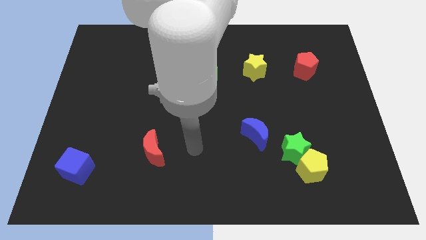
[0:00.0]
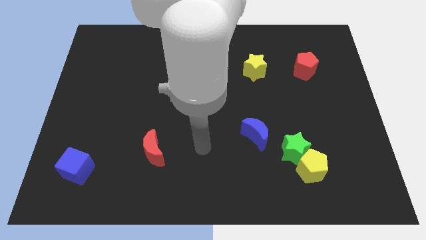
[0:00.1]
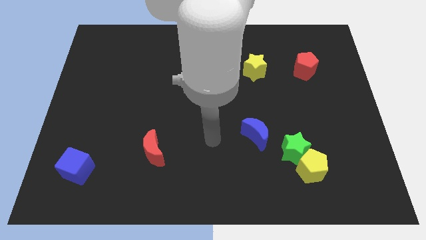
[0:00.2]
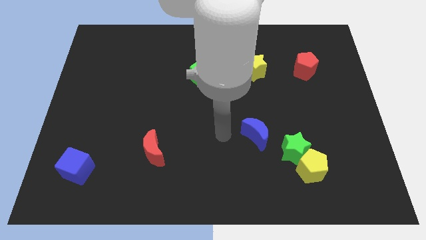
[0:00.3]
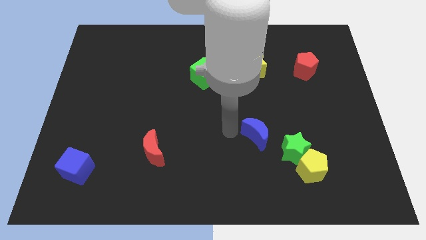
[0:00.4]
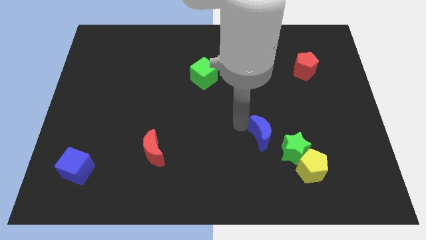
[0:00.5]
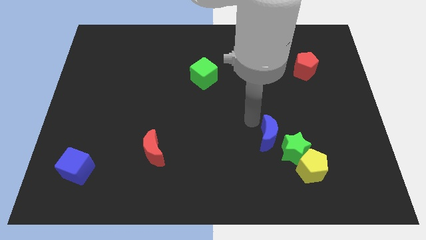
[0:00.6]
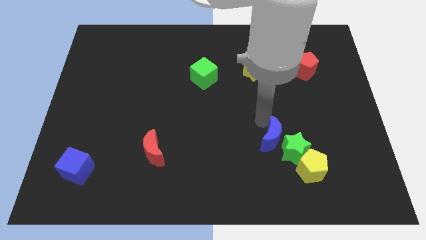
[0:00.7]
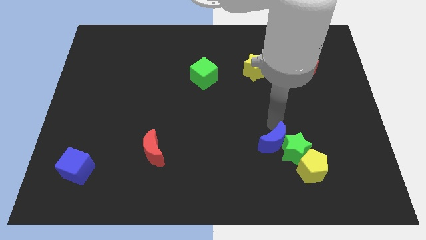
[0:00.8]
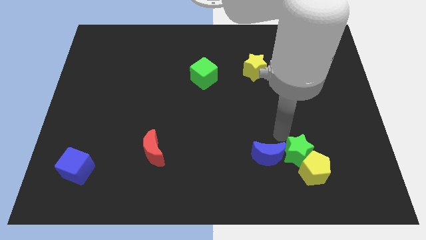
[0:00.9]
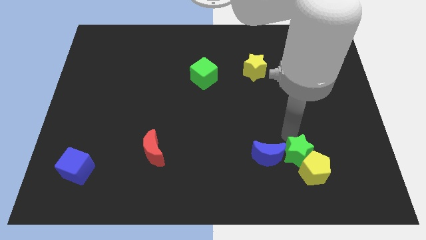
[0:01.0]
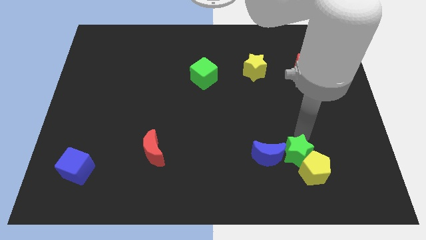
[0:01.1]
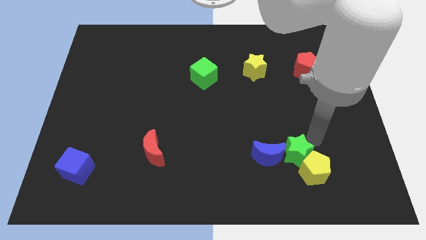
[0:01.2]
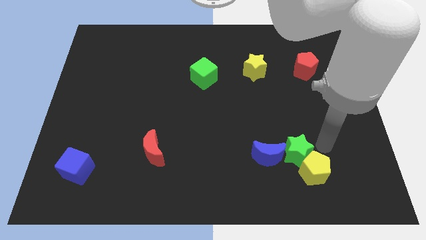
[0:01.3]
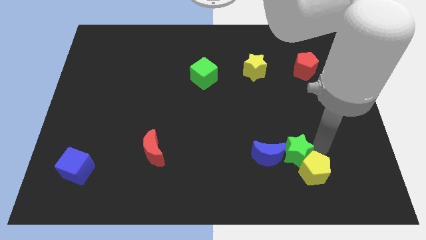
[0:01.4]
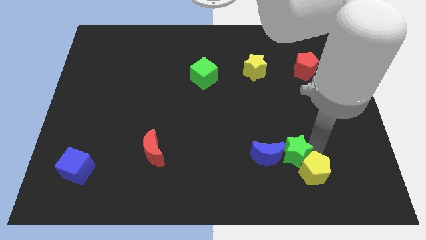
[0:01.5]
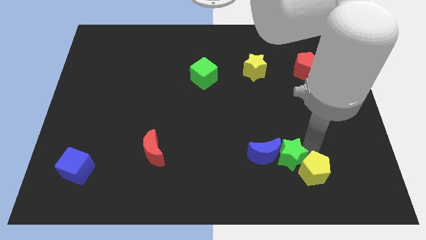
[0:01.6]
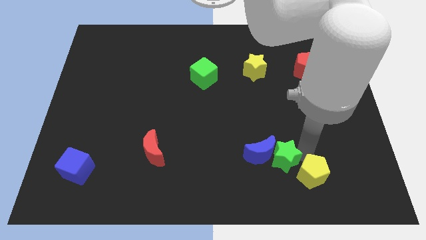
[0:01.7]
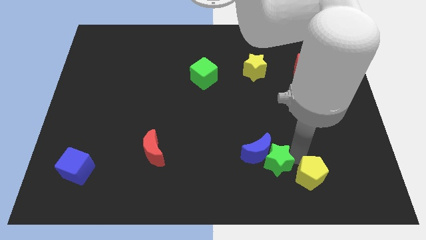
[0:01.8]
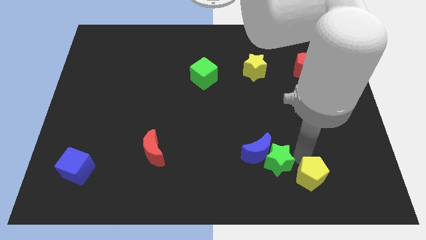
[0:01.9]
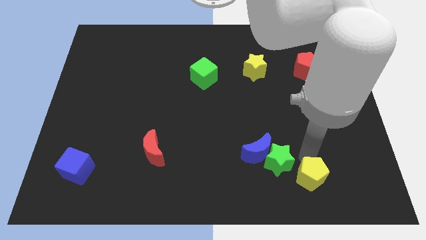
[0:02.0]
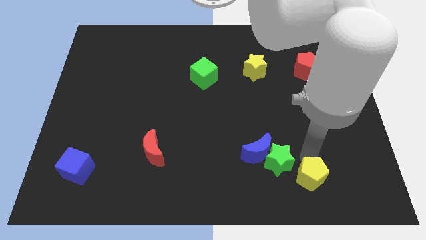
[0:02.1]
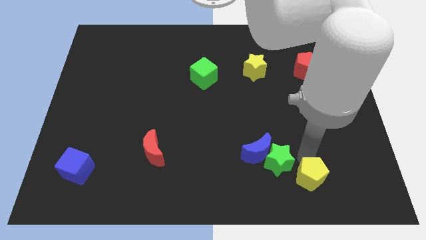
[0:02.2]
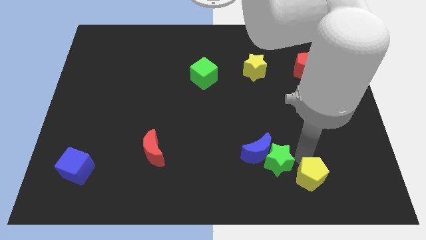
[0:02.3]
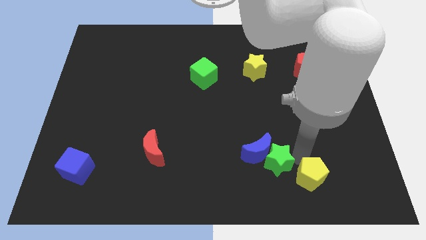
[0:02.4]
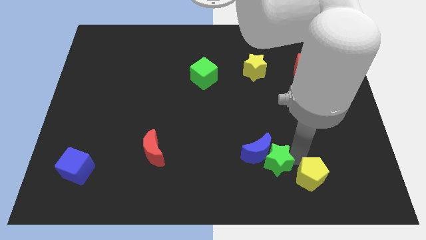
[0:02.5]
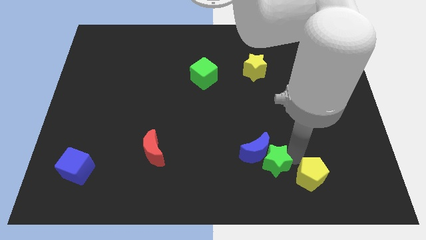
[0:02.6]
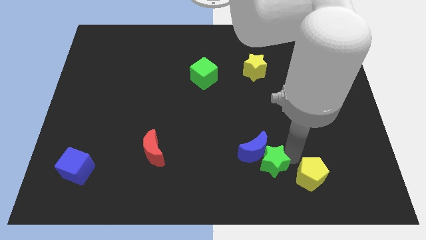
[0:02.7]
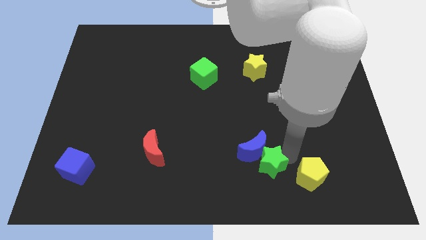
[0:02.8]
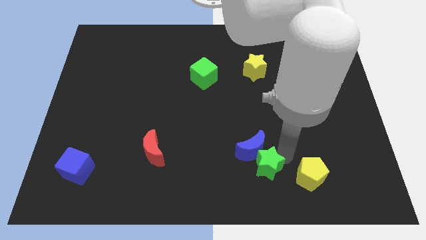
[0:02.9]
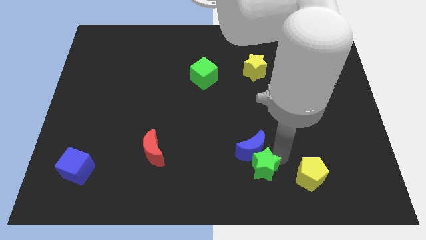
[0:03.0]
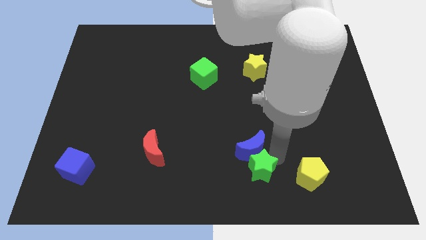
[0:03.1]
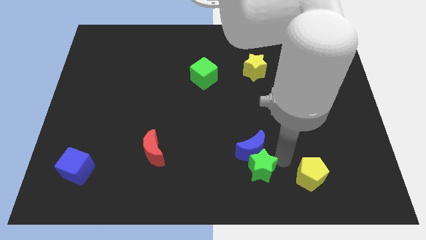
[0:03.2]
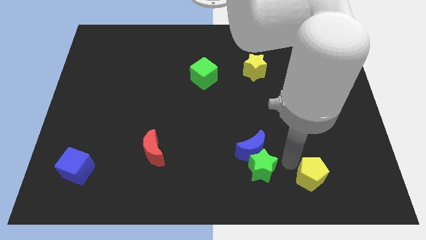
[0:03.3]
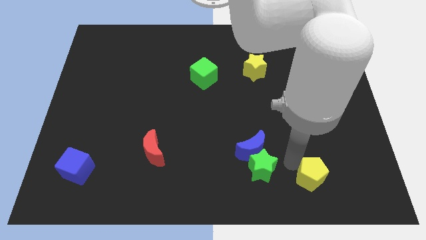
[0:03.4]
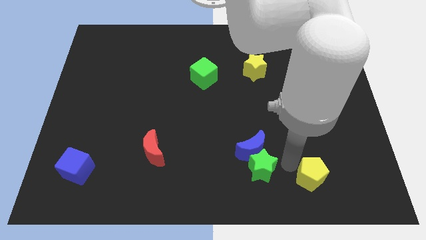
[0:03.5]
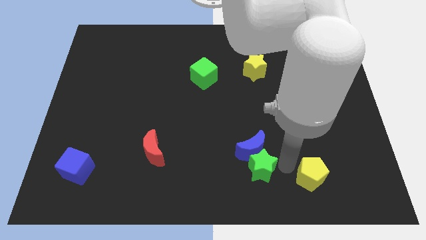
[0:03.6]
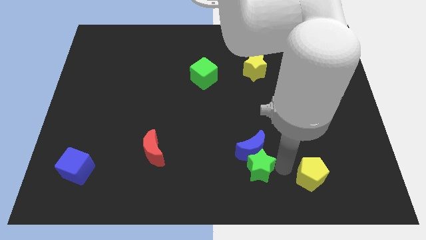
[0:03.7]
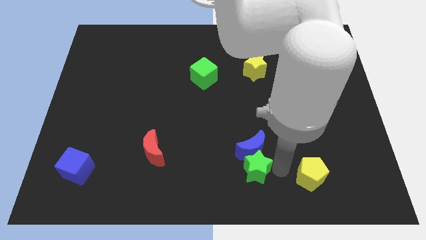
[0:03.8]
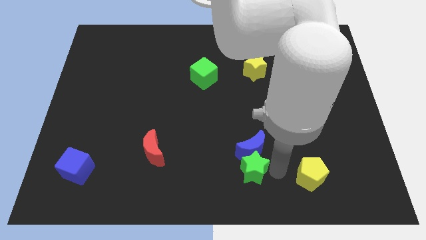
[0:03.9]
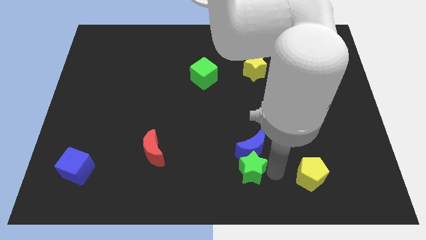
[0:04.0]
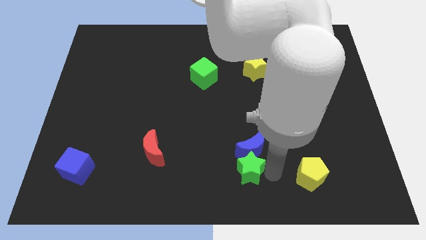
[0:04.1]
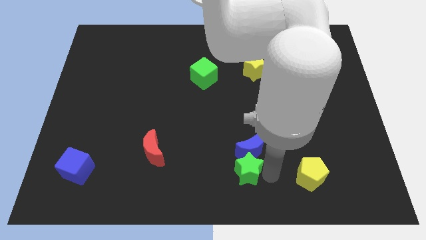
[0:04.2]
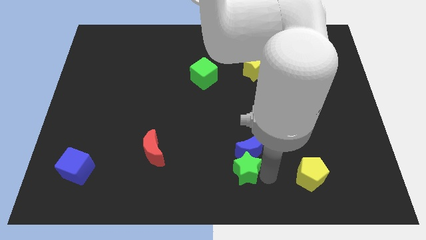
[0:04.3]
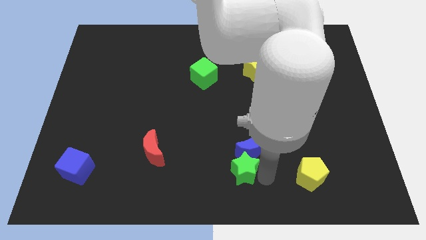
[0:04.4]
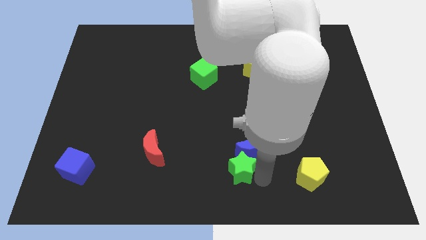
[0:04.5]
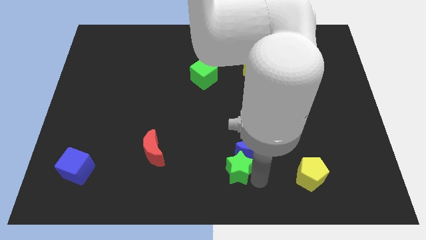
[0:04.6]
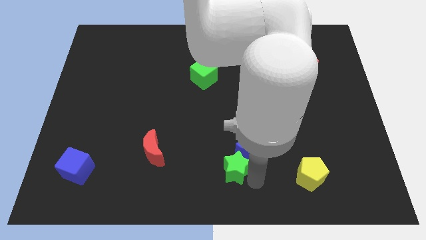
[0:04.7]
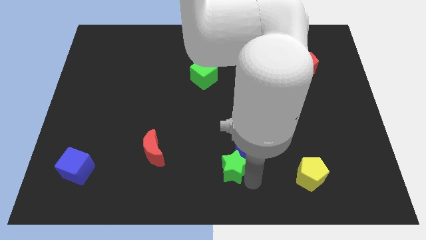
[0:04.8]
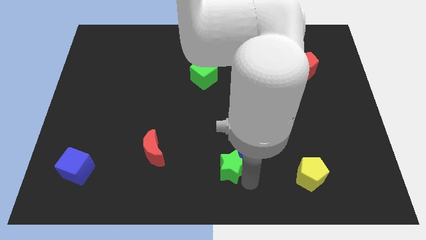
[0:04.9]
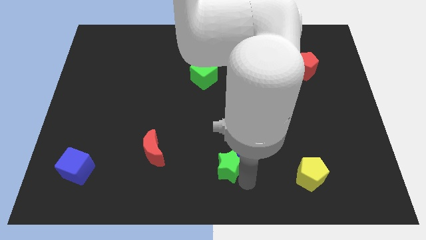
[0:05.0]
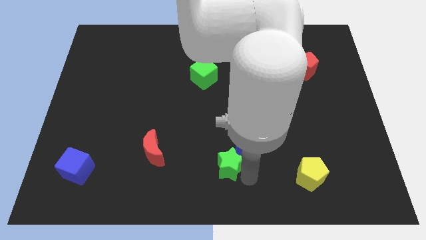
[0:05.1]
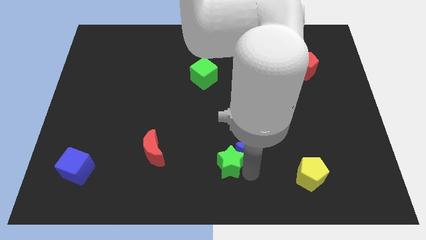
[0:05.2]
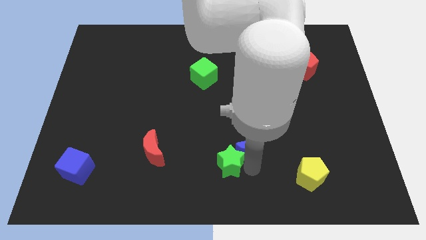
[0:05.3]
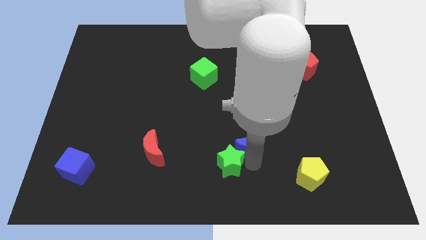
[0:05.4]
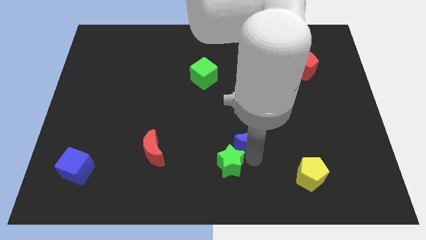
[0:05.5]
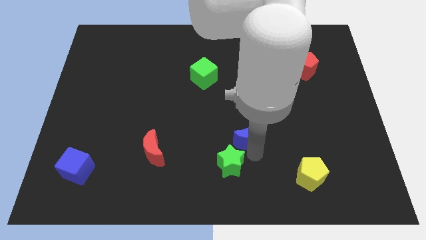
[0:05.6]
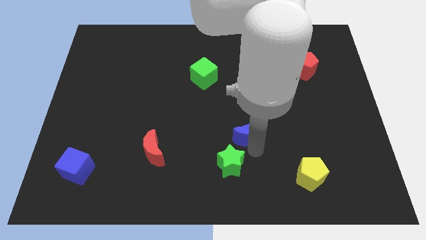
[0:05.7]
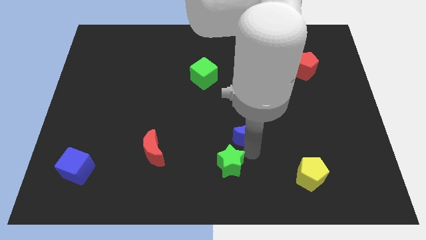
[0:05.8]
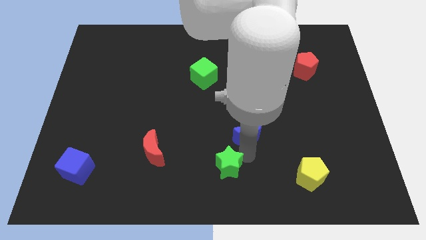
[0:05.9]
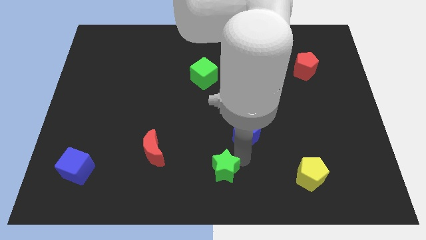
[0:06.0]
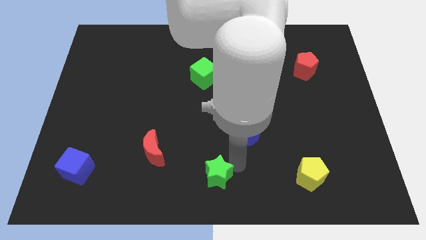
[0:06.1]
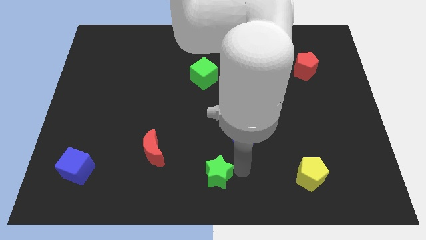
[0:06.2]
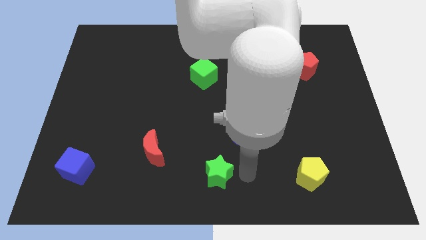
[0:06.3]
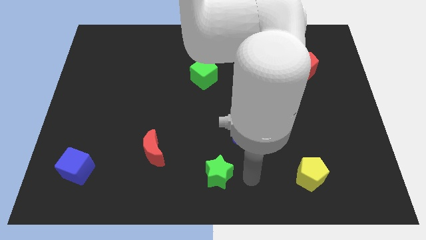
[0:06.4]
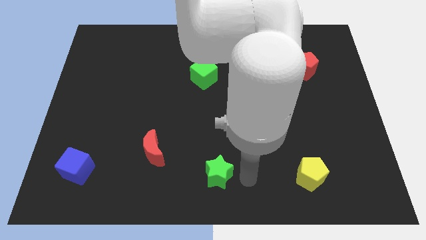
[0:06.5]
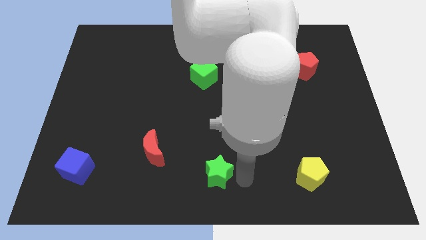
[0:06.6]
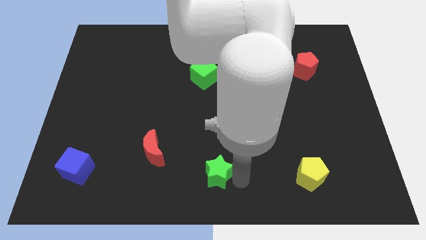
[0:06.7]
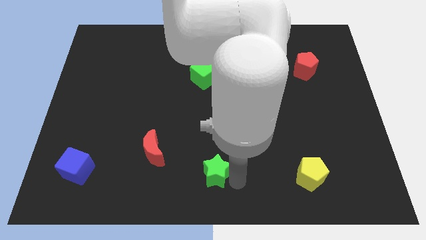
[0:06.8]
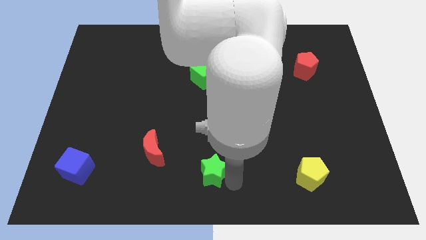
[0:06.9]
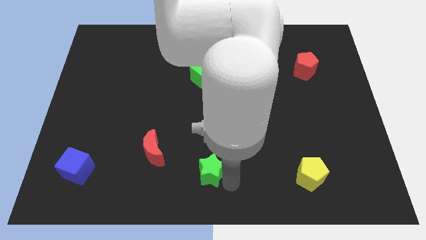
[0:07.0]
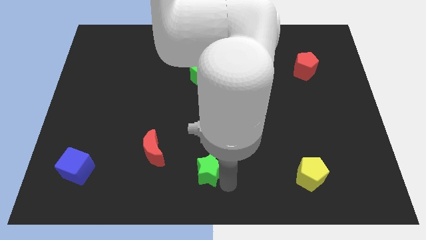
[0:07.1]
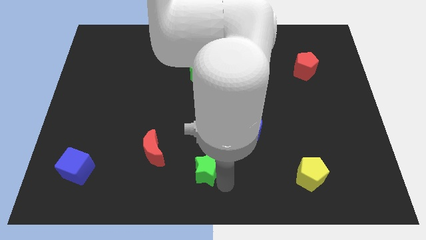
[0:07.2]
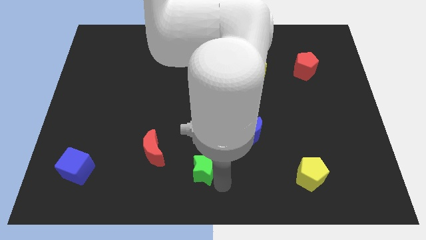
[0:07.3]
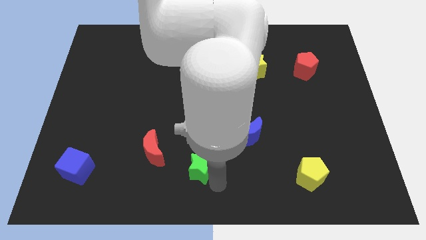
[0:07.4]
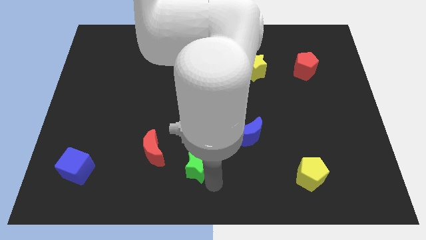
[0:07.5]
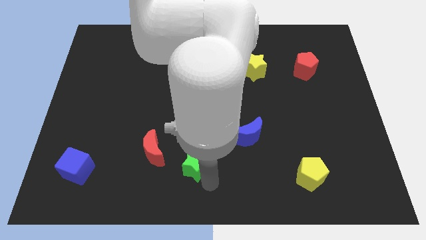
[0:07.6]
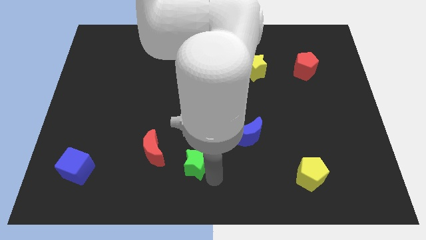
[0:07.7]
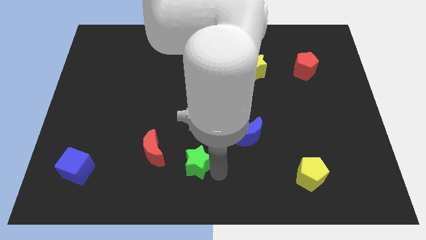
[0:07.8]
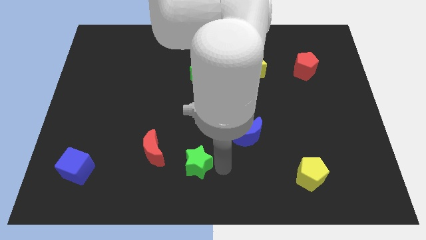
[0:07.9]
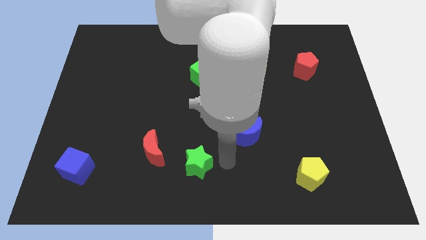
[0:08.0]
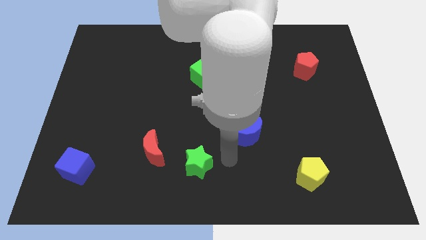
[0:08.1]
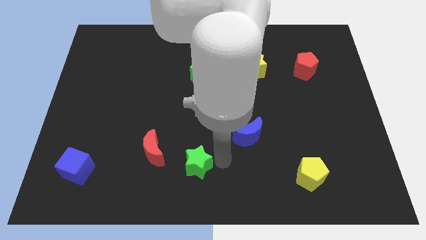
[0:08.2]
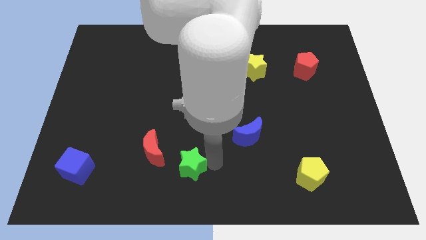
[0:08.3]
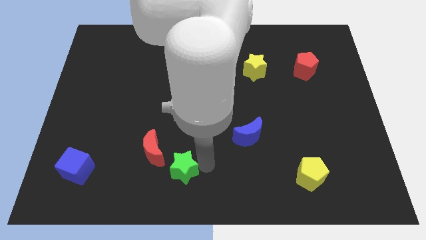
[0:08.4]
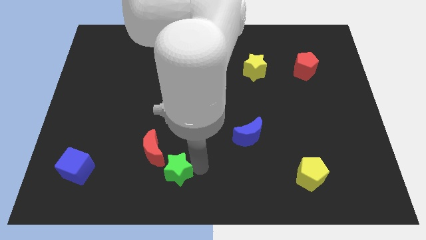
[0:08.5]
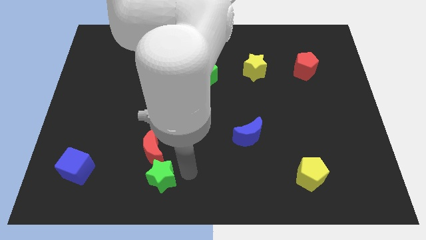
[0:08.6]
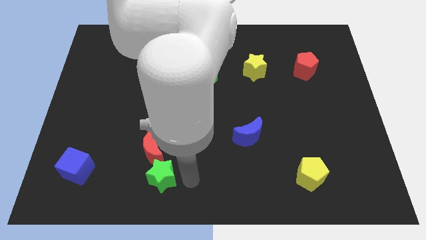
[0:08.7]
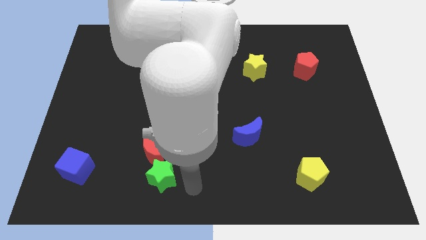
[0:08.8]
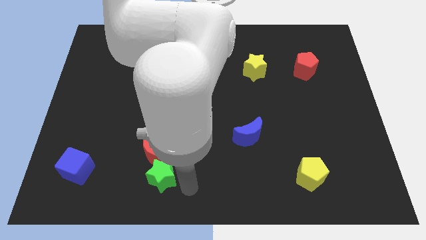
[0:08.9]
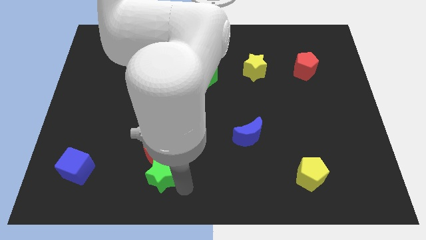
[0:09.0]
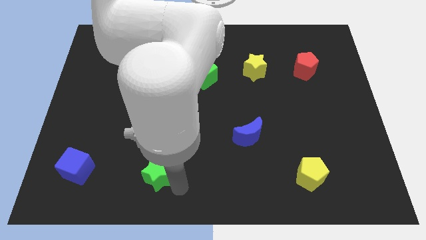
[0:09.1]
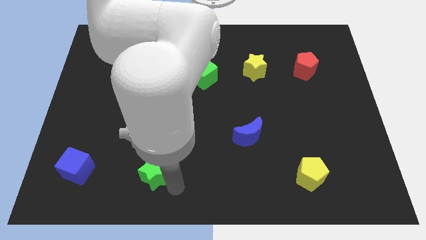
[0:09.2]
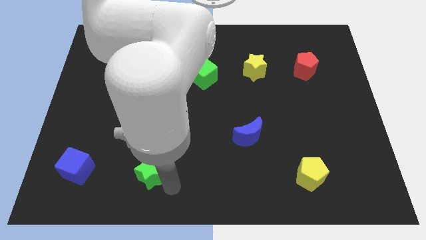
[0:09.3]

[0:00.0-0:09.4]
slide the green star right of the blue cube
